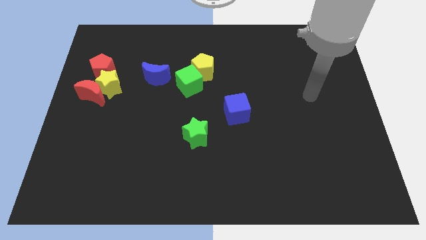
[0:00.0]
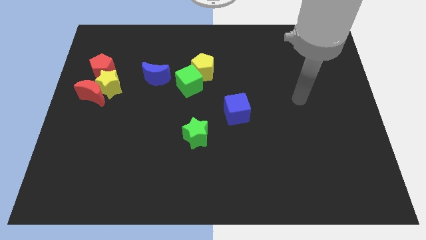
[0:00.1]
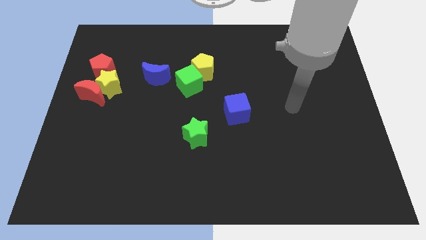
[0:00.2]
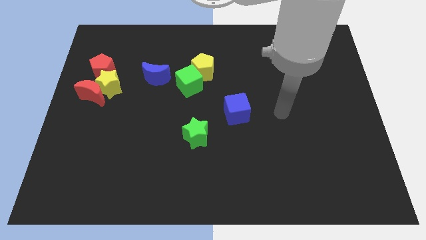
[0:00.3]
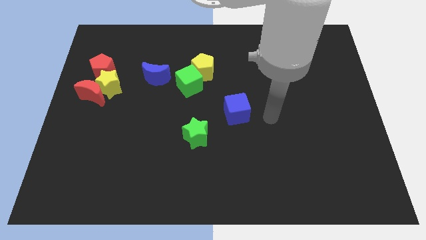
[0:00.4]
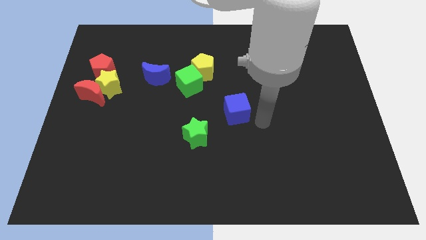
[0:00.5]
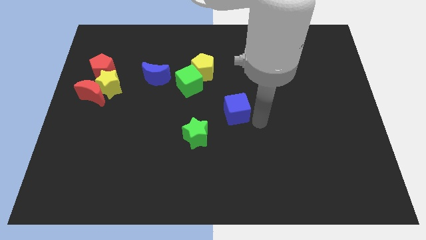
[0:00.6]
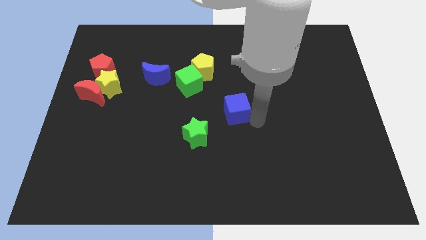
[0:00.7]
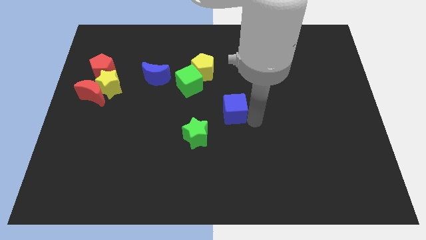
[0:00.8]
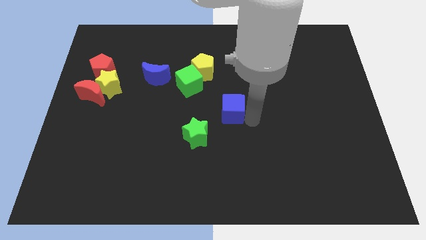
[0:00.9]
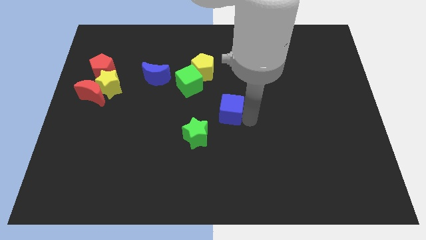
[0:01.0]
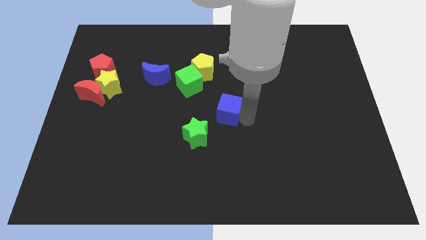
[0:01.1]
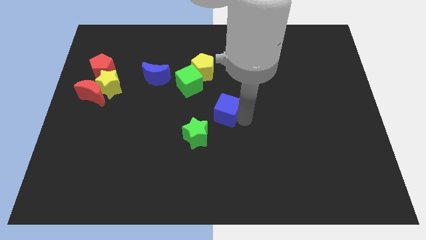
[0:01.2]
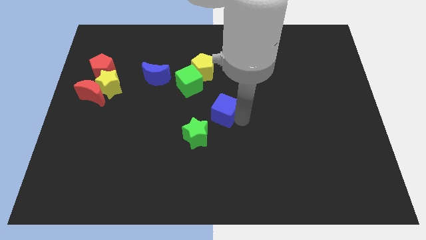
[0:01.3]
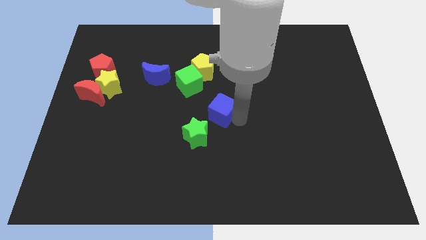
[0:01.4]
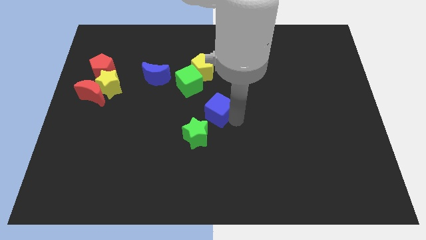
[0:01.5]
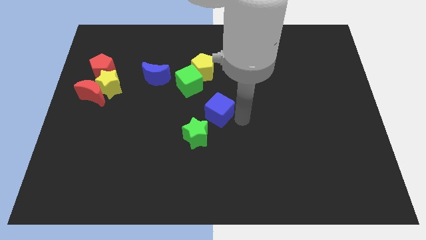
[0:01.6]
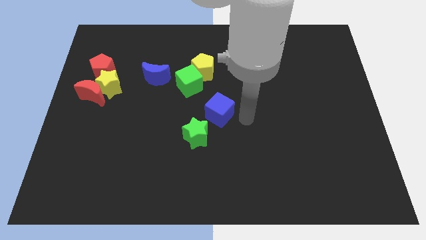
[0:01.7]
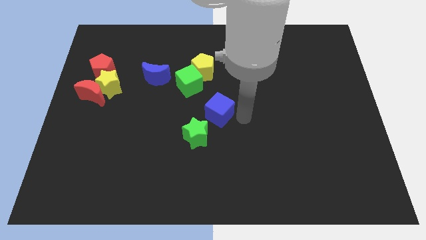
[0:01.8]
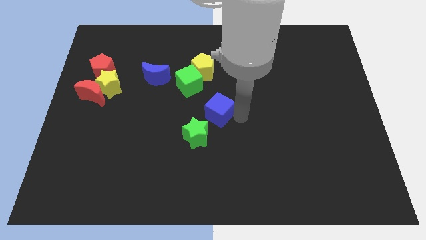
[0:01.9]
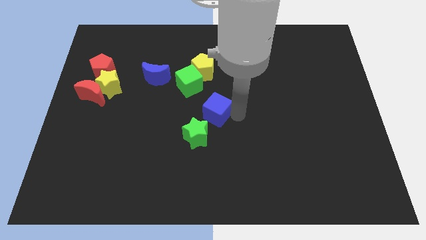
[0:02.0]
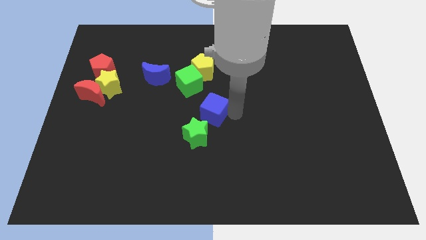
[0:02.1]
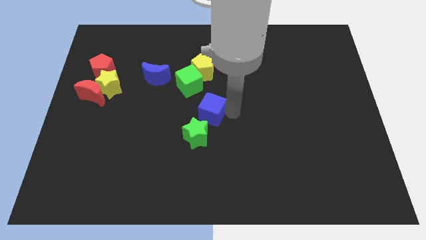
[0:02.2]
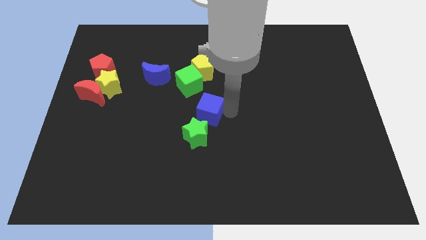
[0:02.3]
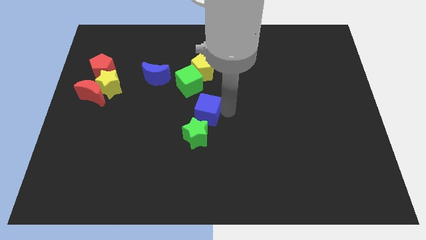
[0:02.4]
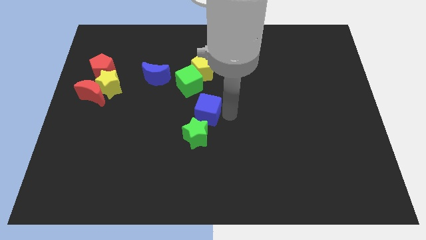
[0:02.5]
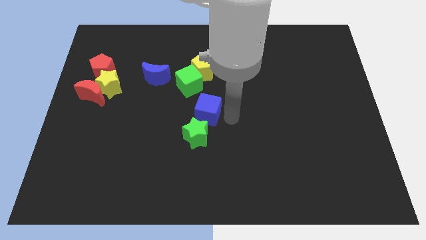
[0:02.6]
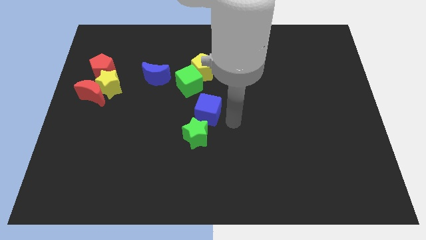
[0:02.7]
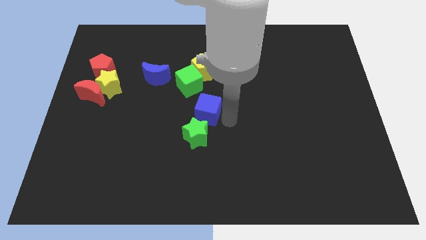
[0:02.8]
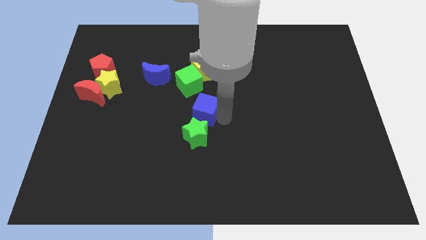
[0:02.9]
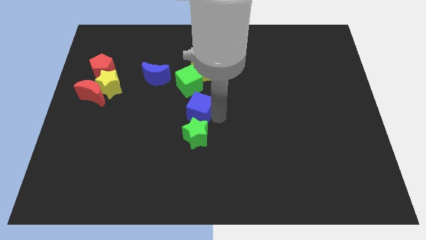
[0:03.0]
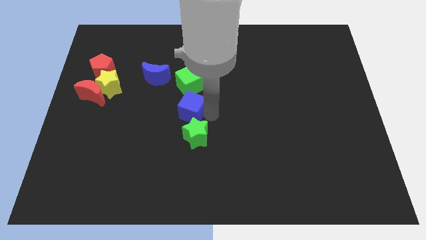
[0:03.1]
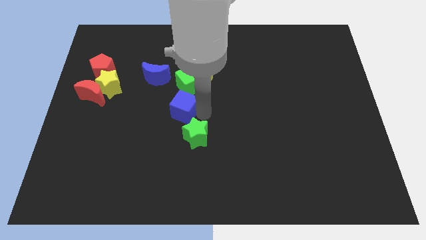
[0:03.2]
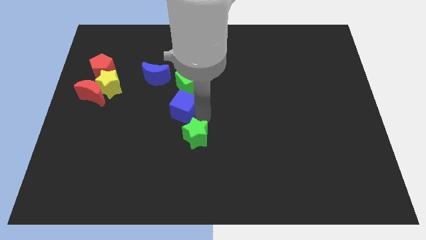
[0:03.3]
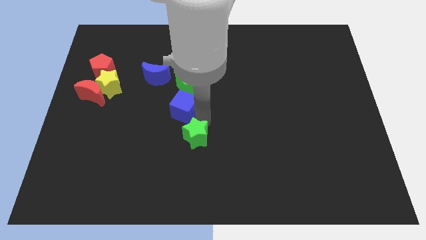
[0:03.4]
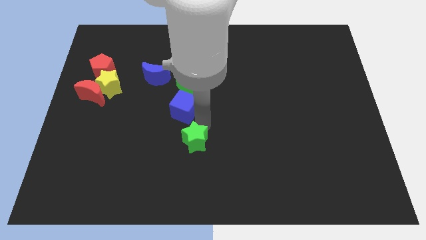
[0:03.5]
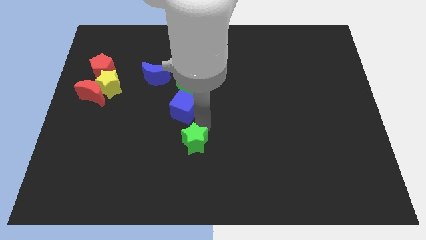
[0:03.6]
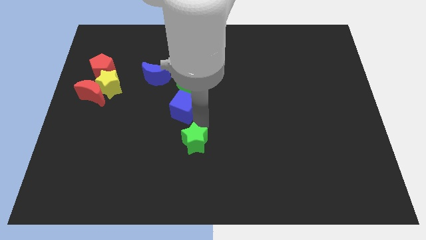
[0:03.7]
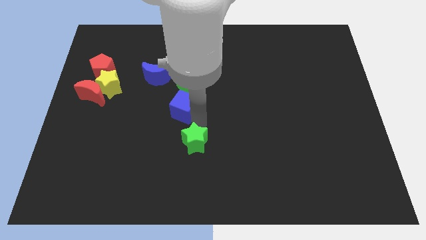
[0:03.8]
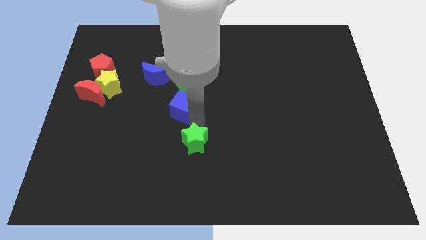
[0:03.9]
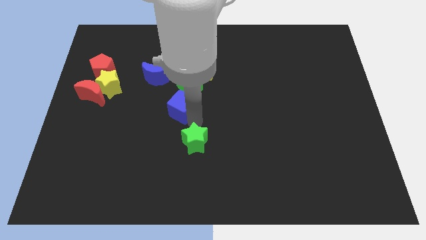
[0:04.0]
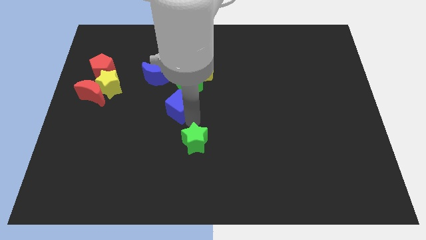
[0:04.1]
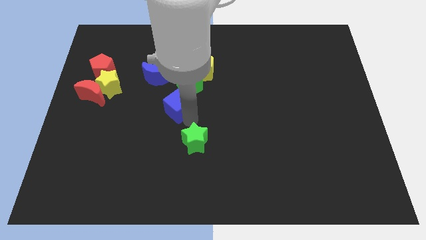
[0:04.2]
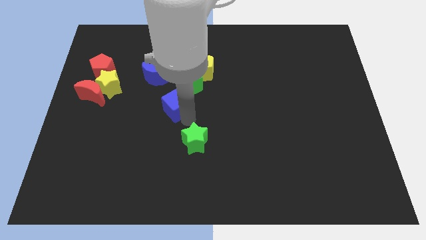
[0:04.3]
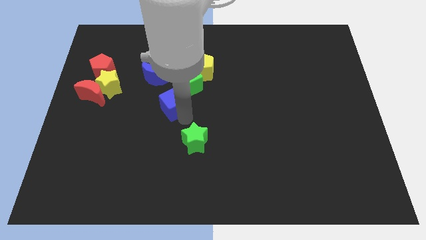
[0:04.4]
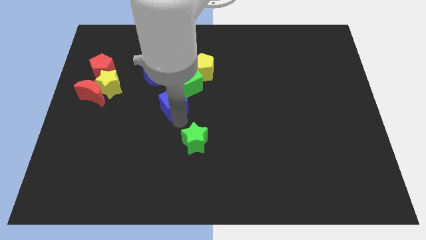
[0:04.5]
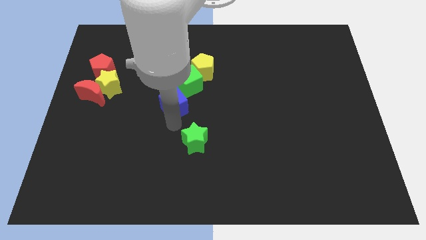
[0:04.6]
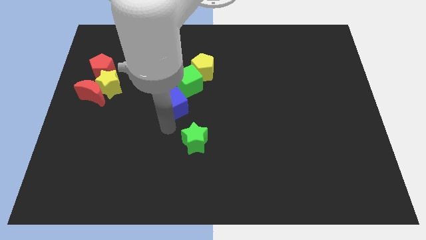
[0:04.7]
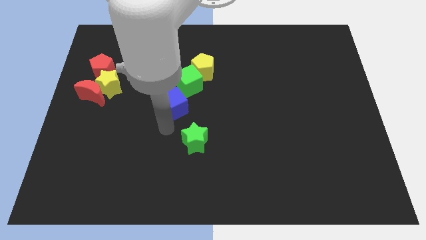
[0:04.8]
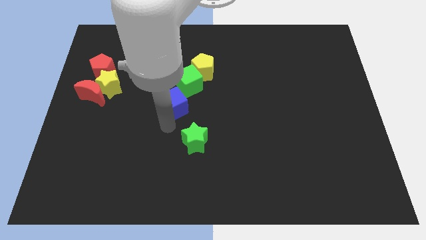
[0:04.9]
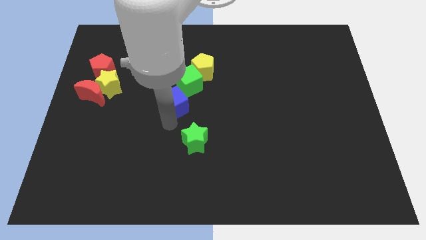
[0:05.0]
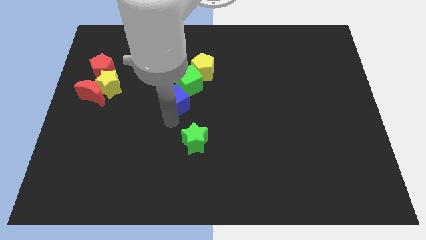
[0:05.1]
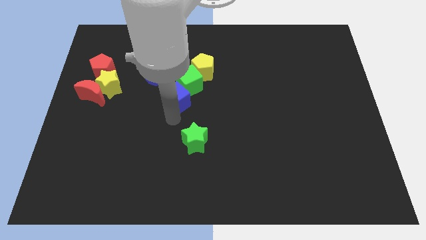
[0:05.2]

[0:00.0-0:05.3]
move the blue cube to the bottom left of the yellow pentagon

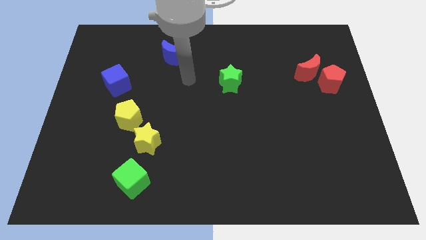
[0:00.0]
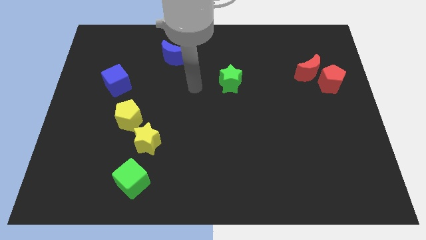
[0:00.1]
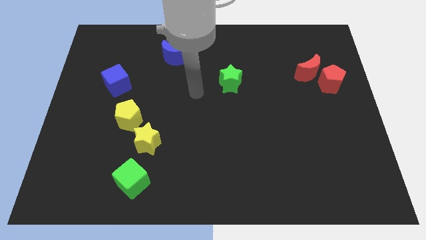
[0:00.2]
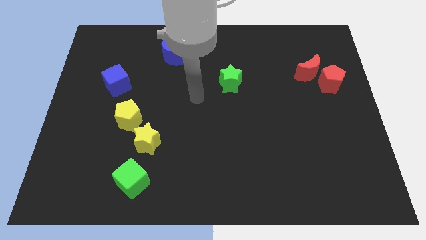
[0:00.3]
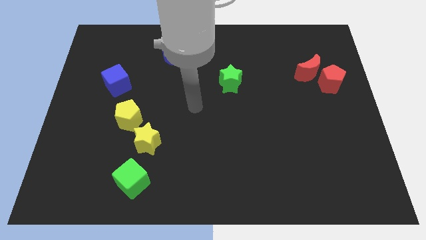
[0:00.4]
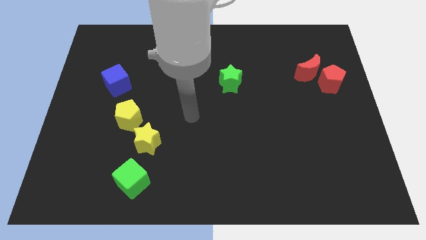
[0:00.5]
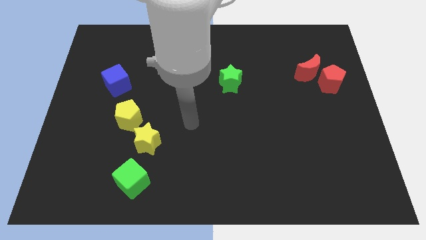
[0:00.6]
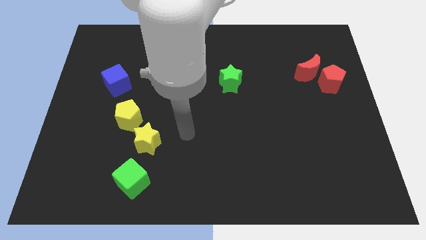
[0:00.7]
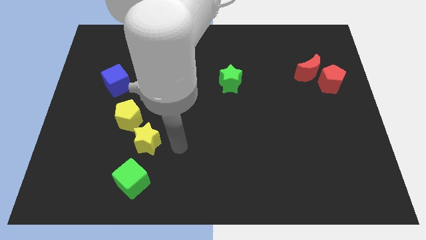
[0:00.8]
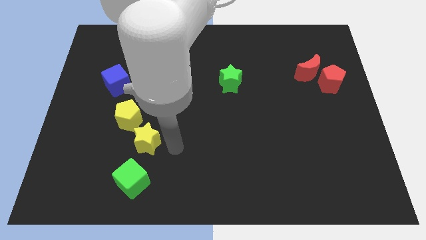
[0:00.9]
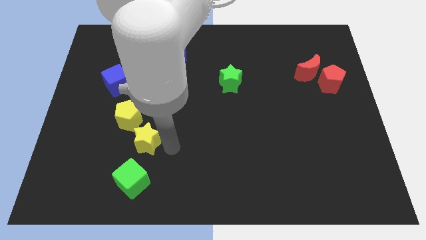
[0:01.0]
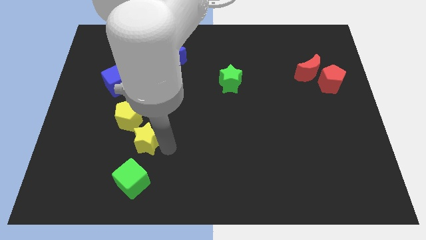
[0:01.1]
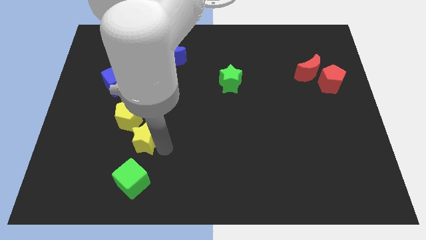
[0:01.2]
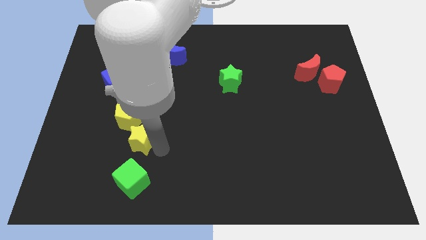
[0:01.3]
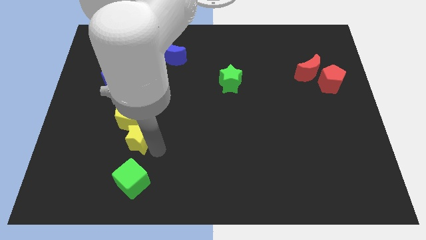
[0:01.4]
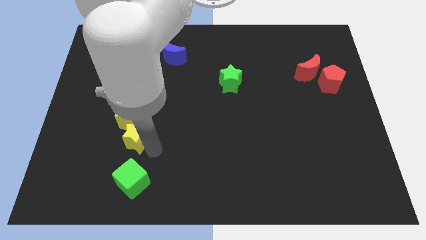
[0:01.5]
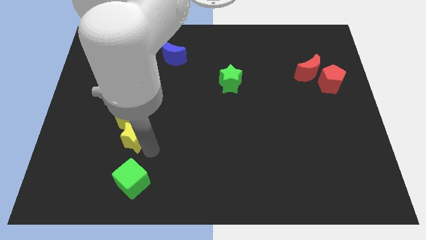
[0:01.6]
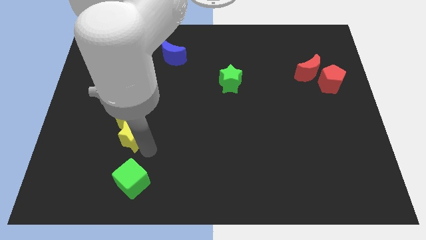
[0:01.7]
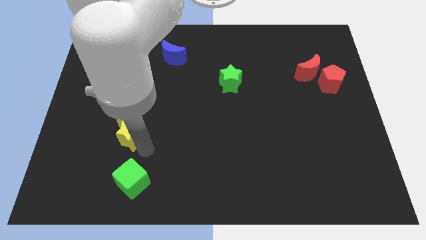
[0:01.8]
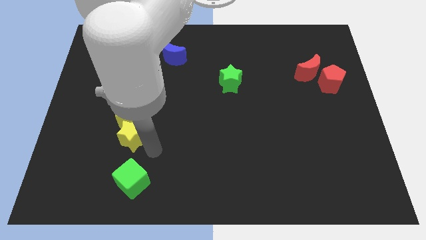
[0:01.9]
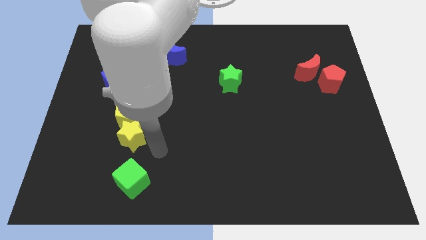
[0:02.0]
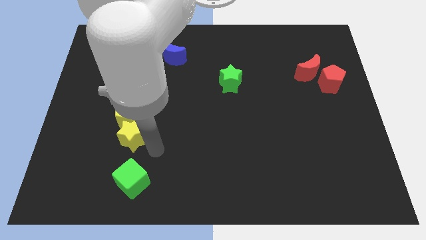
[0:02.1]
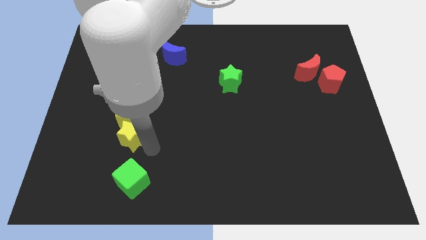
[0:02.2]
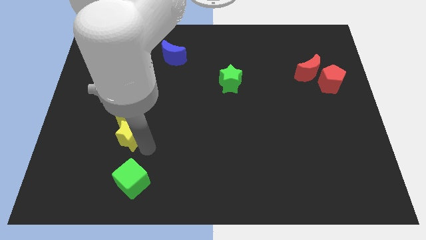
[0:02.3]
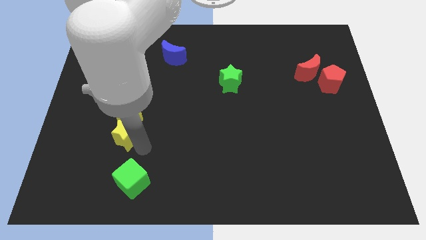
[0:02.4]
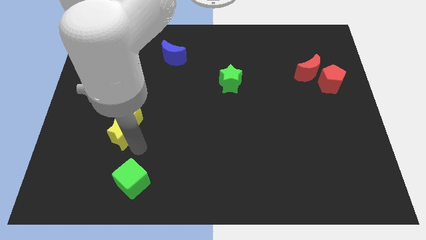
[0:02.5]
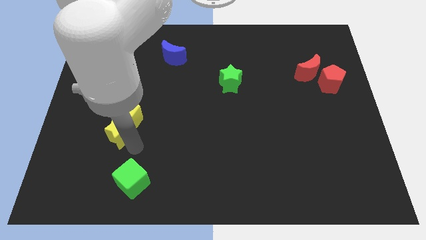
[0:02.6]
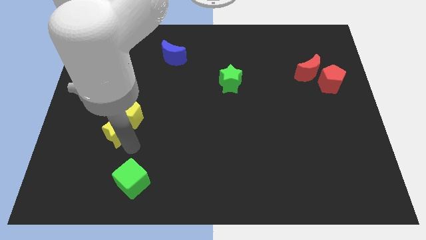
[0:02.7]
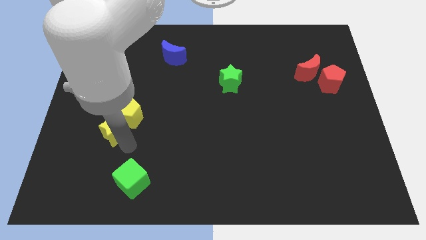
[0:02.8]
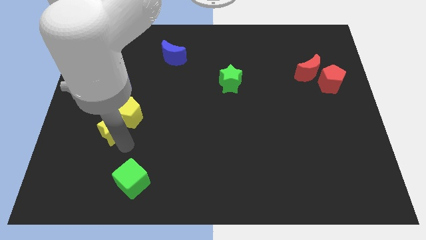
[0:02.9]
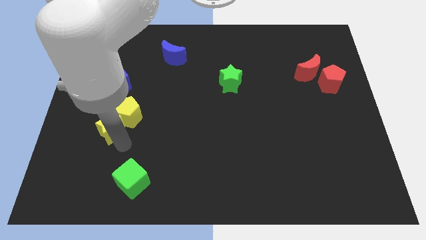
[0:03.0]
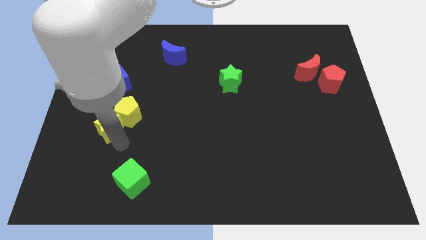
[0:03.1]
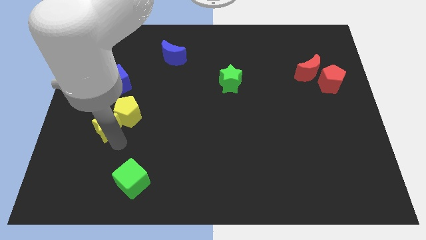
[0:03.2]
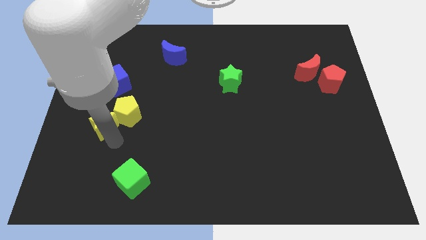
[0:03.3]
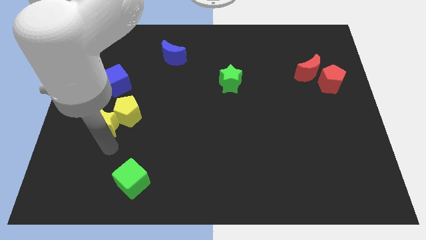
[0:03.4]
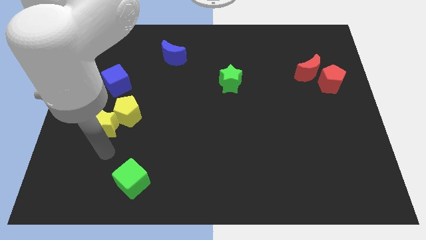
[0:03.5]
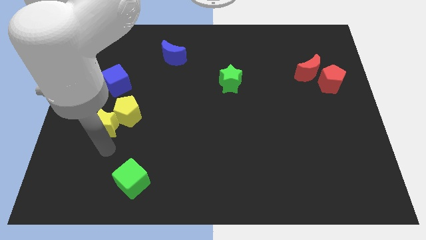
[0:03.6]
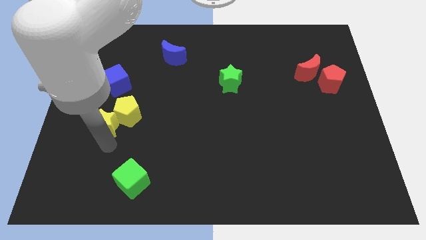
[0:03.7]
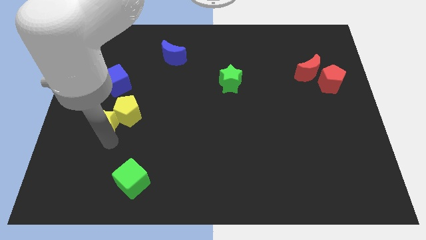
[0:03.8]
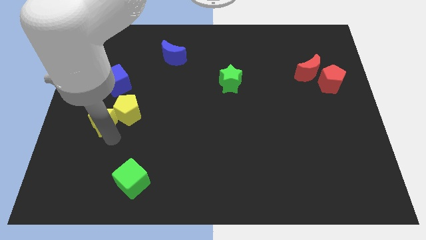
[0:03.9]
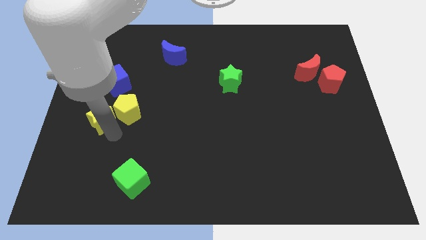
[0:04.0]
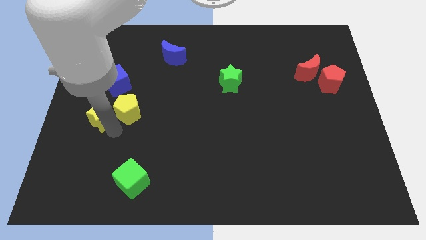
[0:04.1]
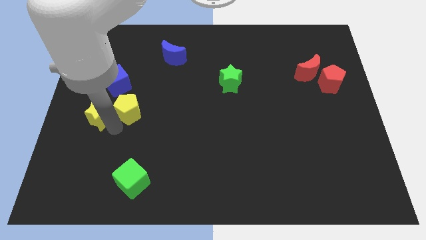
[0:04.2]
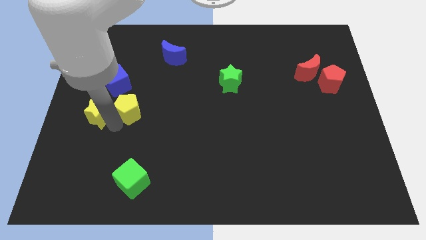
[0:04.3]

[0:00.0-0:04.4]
slide the yellow star to the top left side of the yellow pentagon
